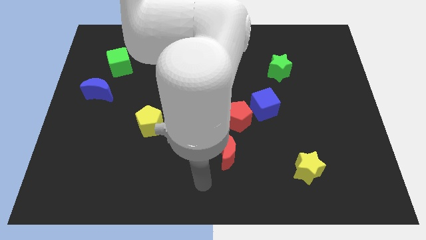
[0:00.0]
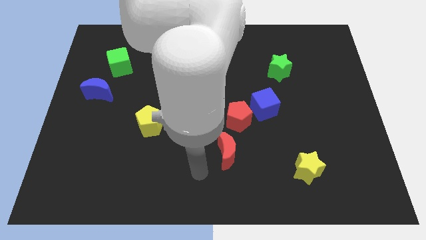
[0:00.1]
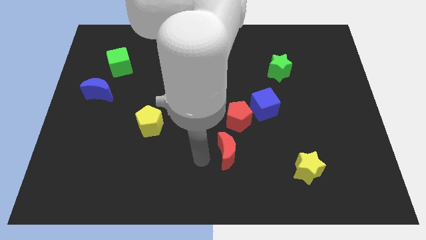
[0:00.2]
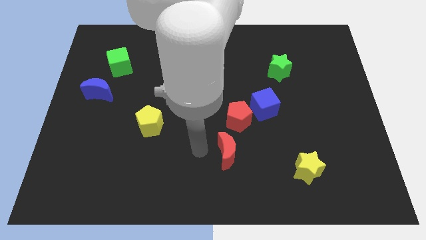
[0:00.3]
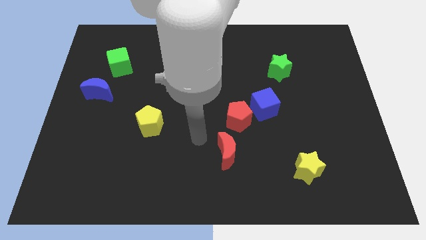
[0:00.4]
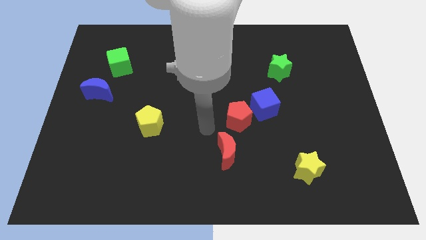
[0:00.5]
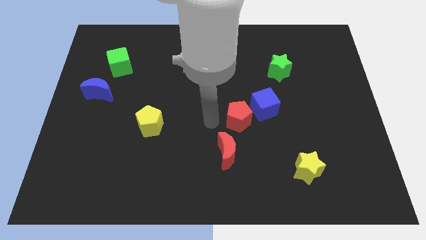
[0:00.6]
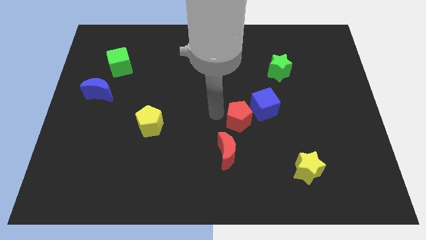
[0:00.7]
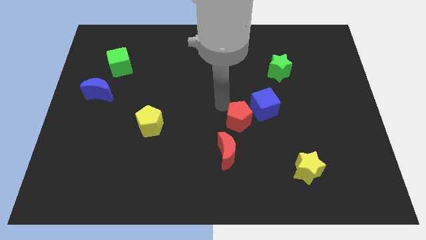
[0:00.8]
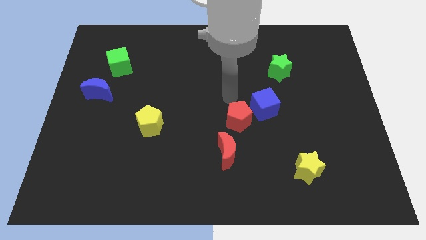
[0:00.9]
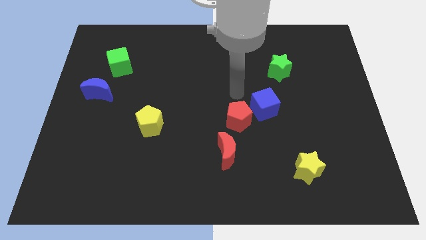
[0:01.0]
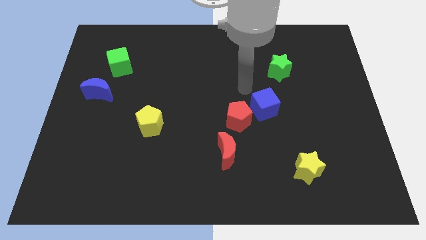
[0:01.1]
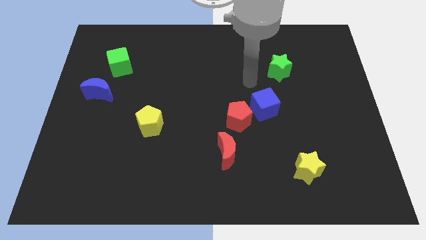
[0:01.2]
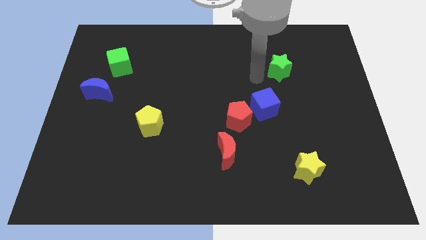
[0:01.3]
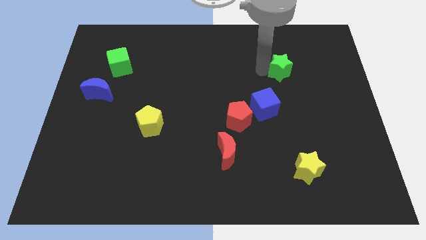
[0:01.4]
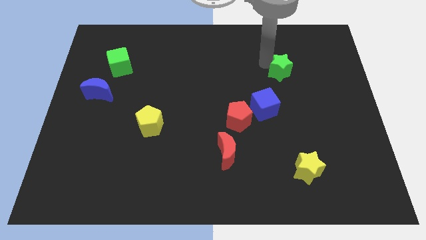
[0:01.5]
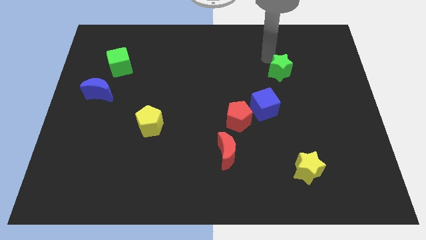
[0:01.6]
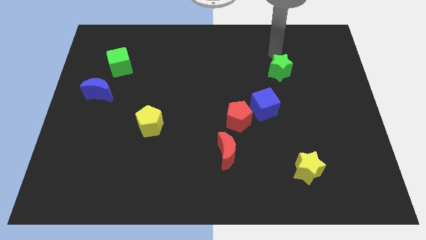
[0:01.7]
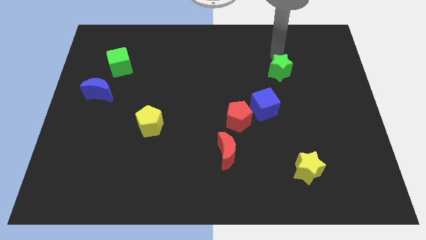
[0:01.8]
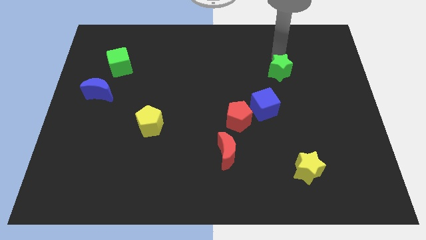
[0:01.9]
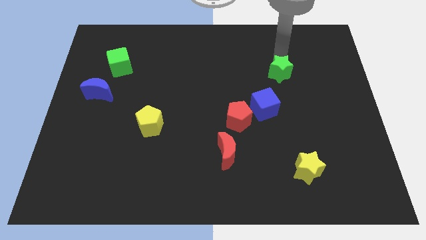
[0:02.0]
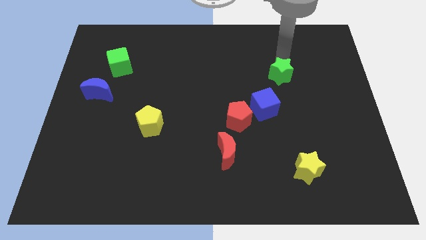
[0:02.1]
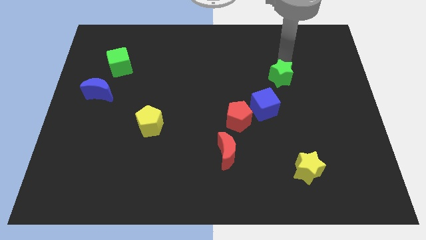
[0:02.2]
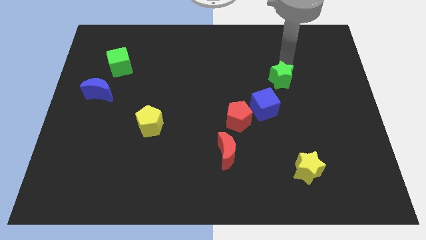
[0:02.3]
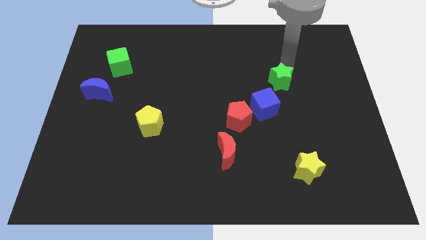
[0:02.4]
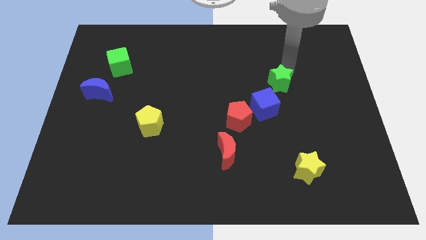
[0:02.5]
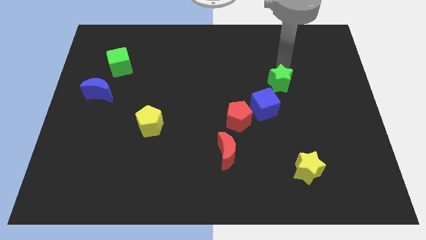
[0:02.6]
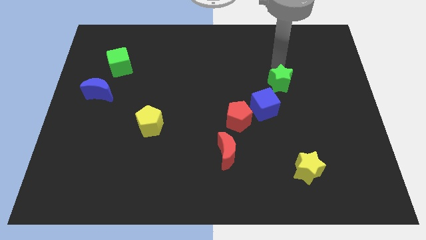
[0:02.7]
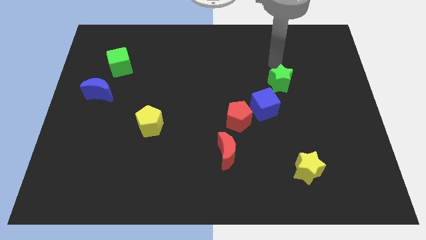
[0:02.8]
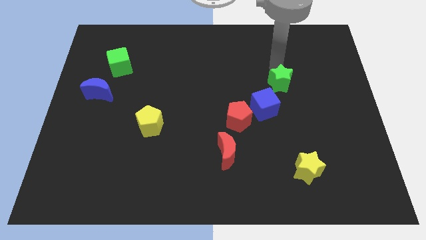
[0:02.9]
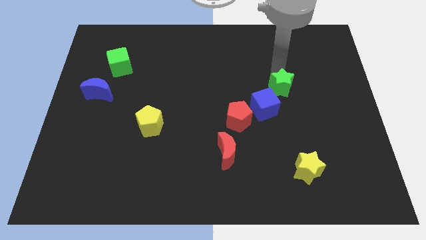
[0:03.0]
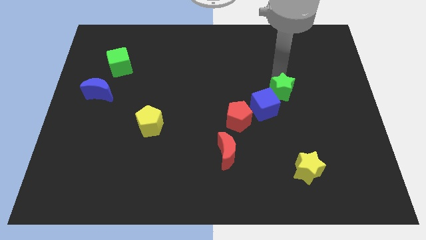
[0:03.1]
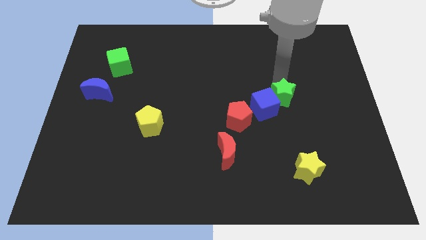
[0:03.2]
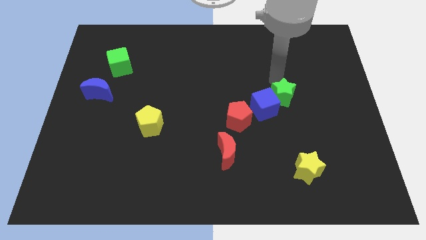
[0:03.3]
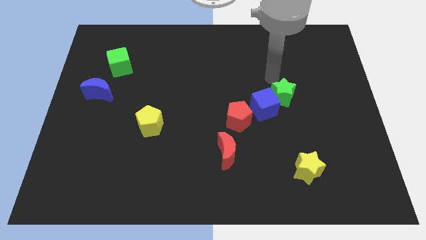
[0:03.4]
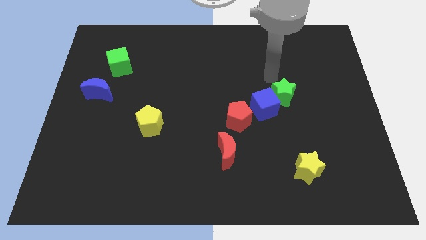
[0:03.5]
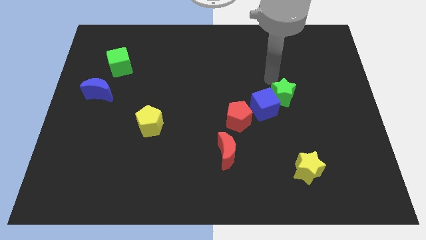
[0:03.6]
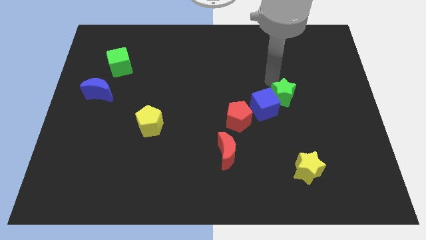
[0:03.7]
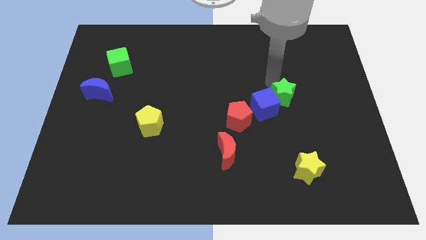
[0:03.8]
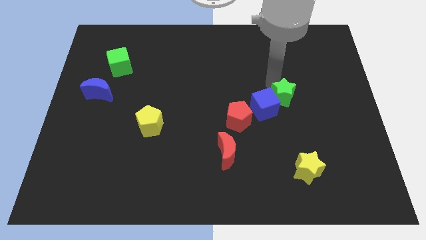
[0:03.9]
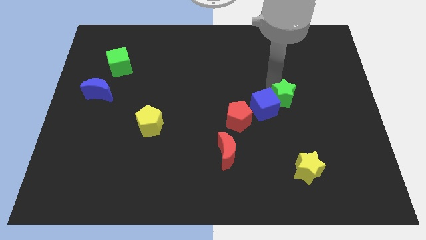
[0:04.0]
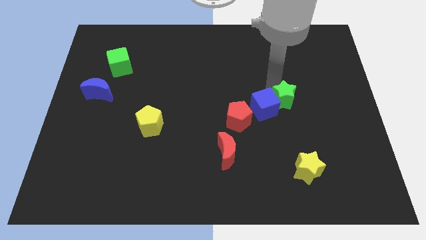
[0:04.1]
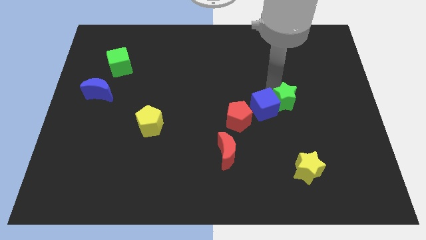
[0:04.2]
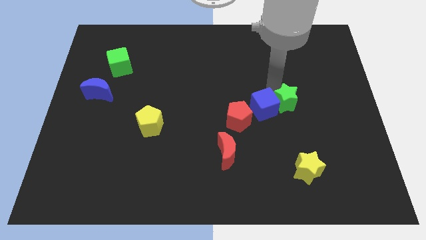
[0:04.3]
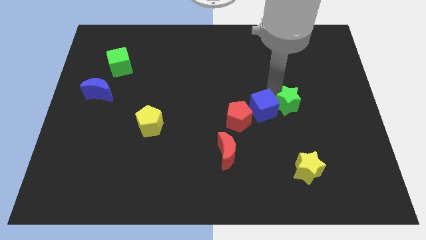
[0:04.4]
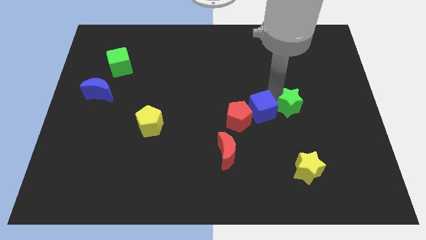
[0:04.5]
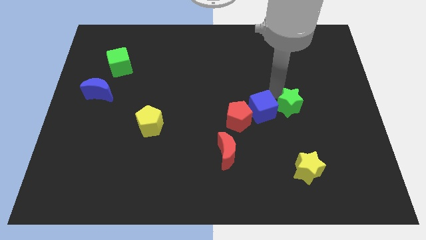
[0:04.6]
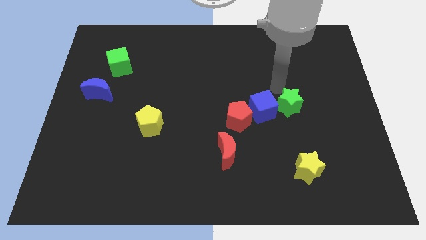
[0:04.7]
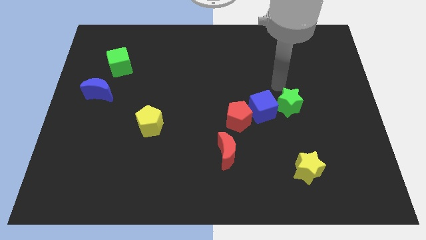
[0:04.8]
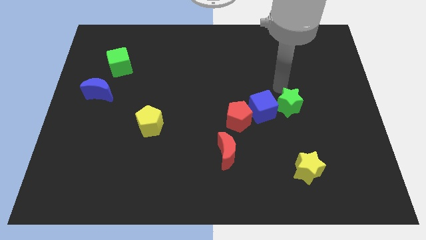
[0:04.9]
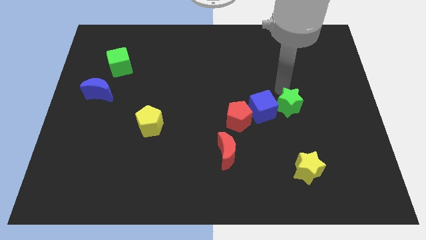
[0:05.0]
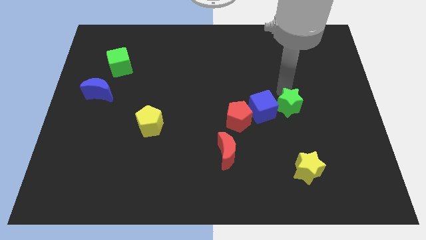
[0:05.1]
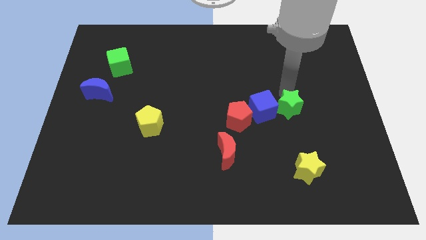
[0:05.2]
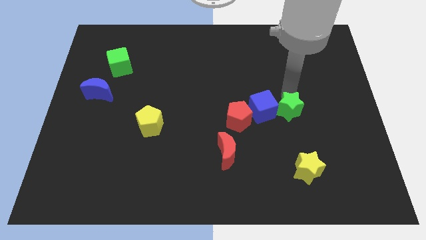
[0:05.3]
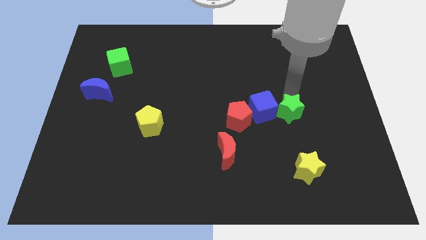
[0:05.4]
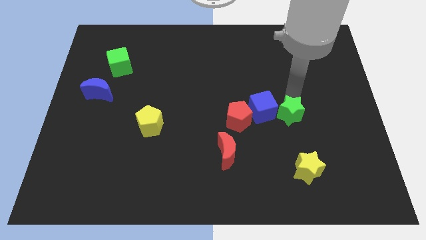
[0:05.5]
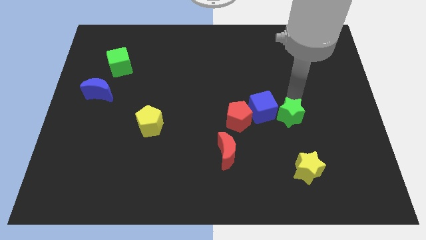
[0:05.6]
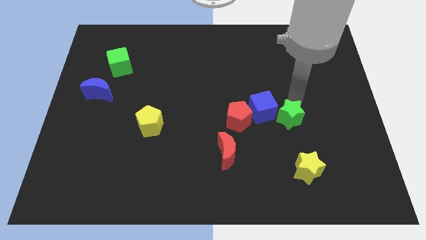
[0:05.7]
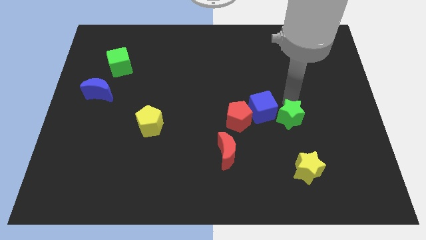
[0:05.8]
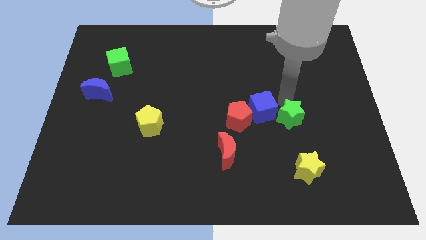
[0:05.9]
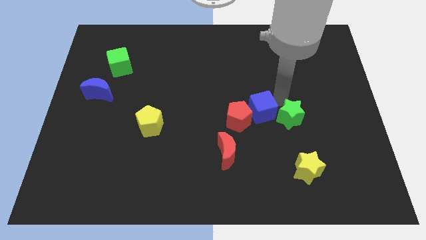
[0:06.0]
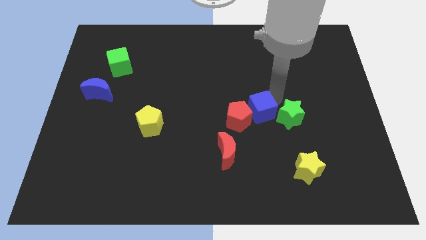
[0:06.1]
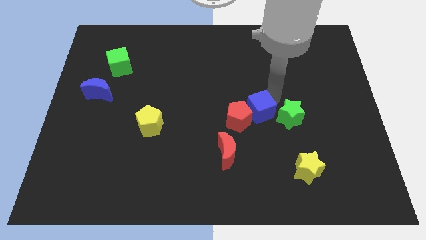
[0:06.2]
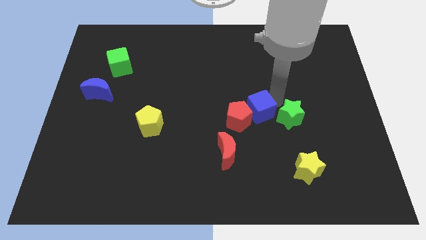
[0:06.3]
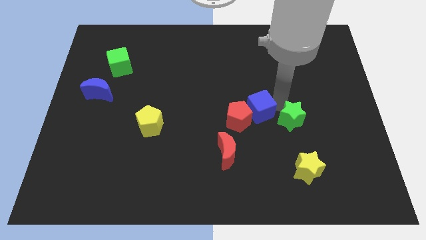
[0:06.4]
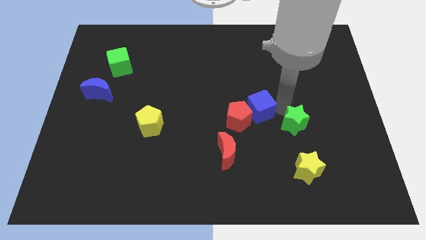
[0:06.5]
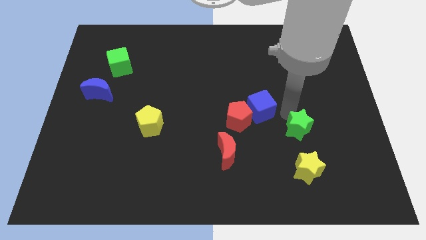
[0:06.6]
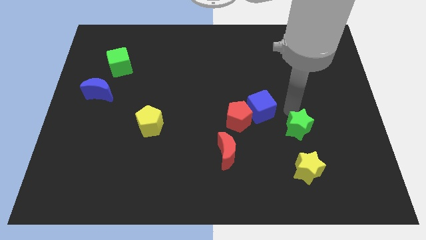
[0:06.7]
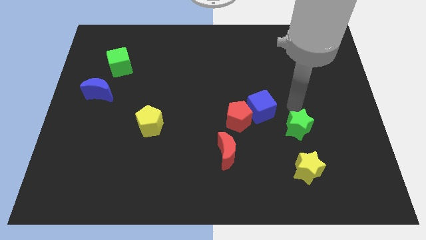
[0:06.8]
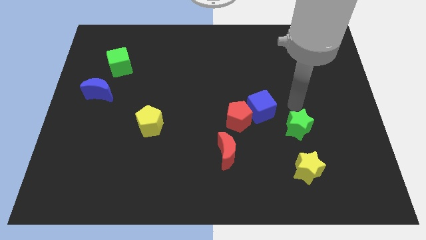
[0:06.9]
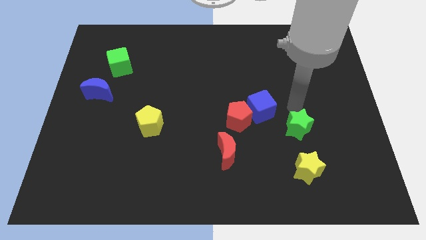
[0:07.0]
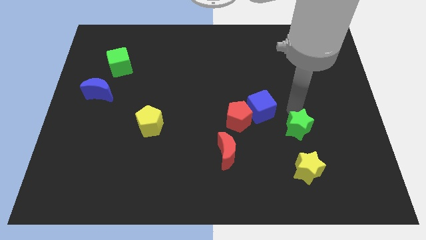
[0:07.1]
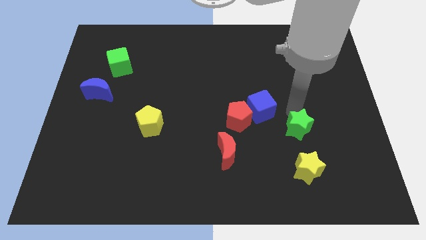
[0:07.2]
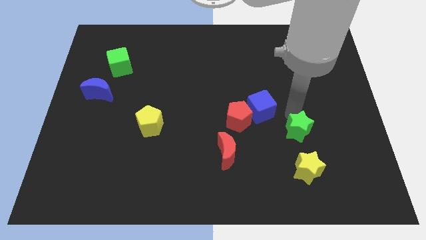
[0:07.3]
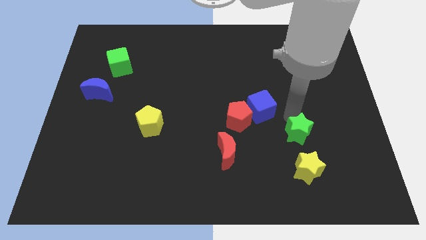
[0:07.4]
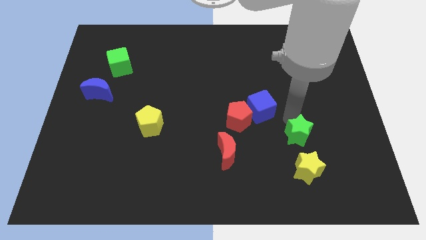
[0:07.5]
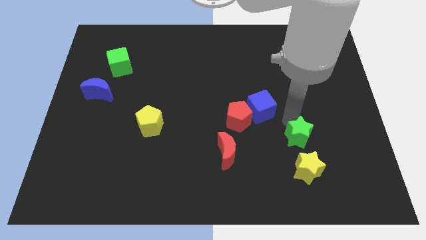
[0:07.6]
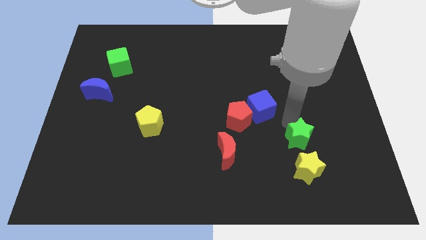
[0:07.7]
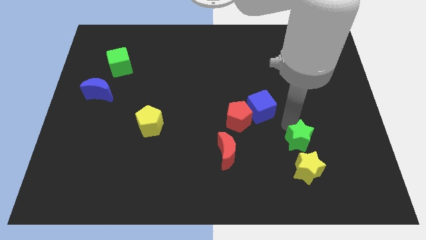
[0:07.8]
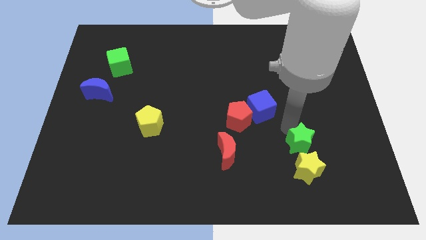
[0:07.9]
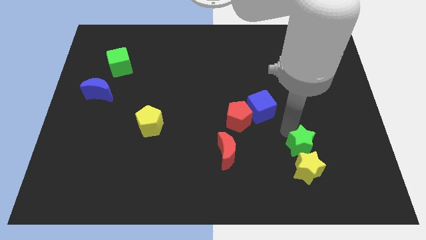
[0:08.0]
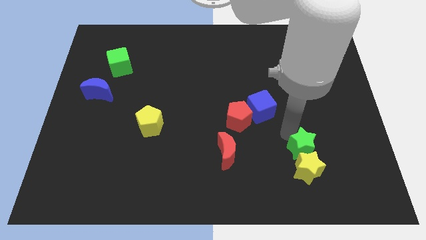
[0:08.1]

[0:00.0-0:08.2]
slide the green star next to the yellow star
